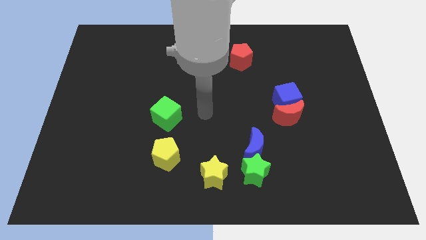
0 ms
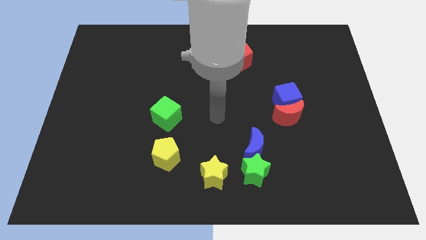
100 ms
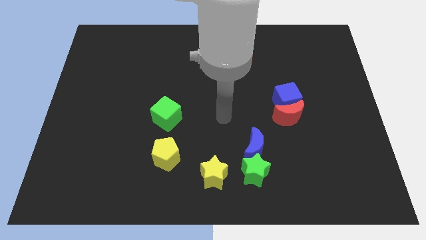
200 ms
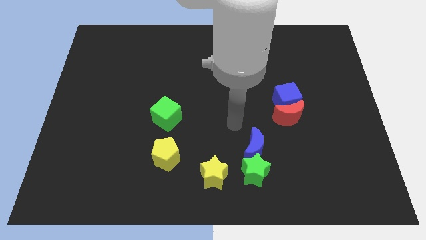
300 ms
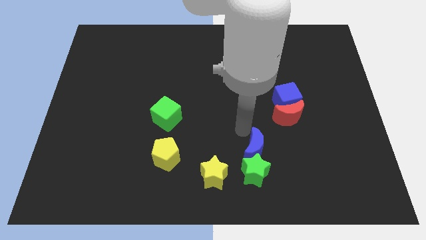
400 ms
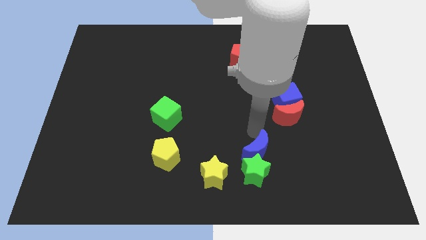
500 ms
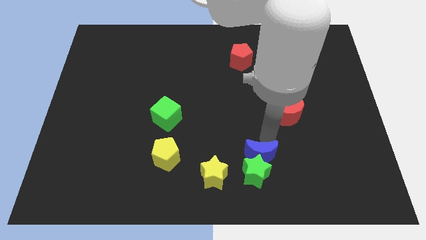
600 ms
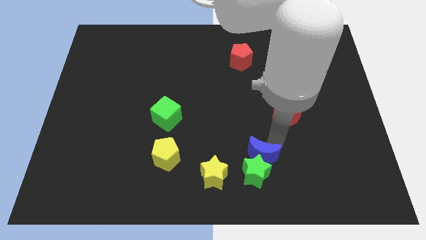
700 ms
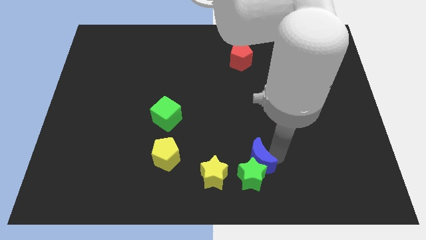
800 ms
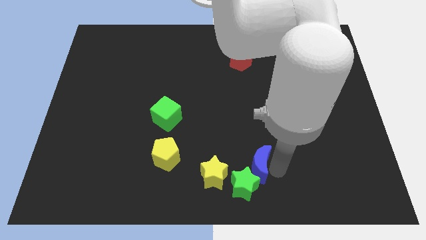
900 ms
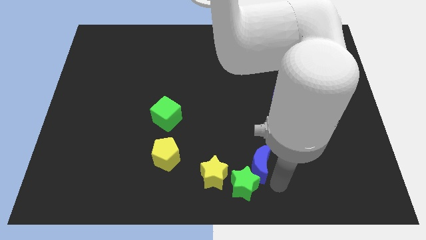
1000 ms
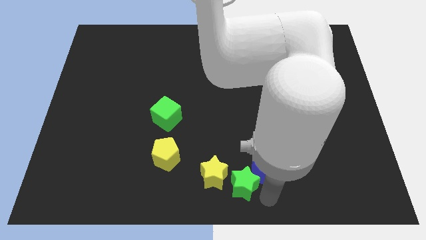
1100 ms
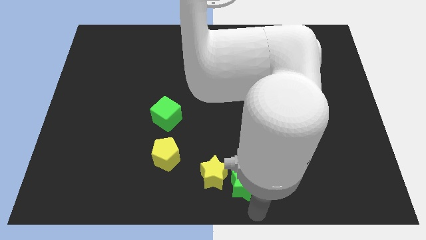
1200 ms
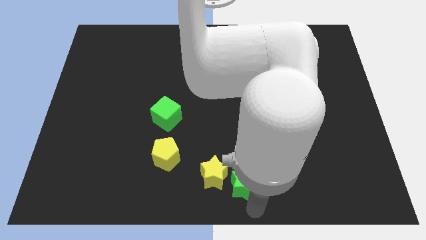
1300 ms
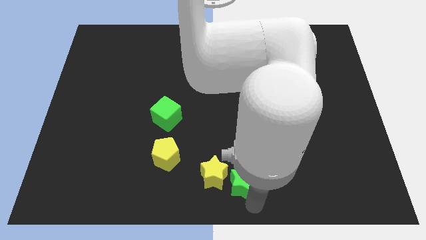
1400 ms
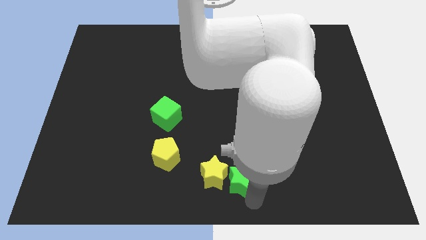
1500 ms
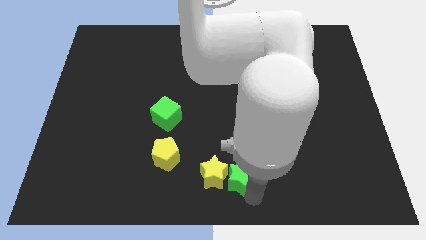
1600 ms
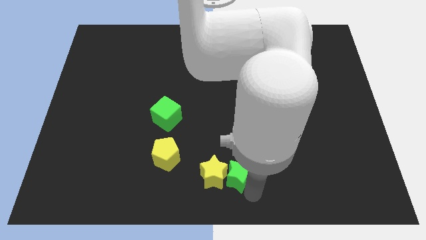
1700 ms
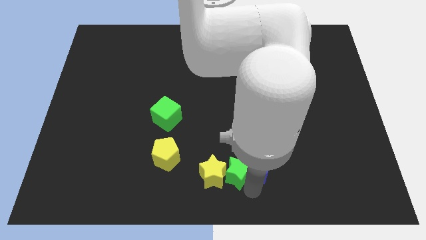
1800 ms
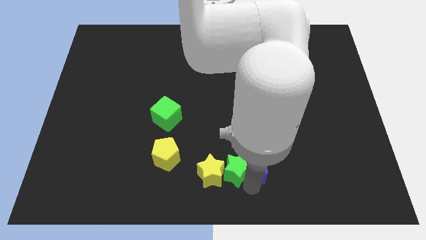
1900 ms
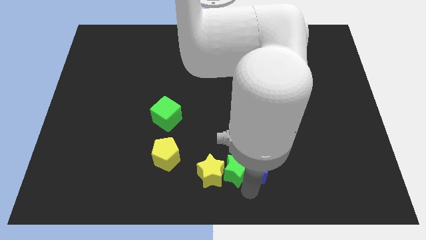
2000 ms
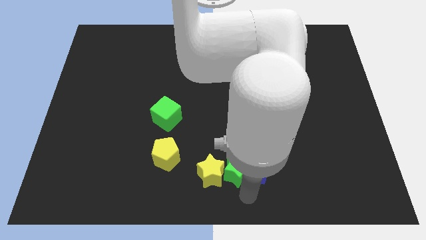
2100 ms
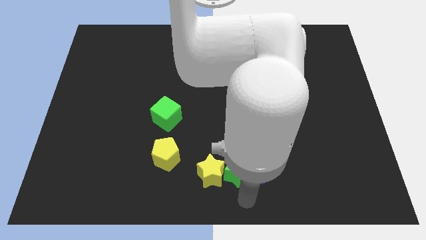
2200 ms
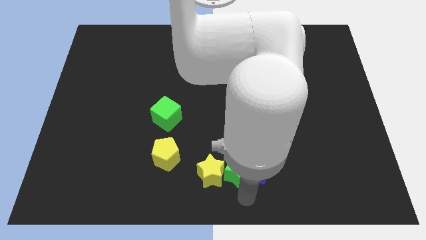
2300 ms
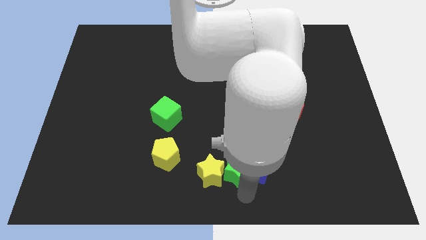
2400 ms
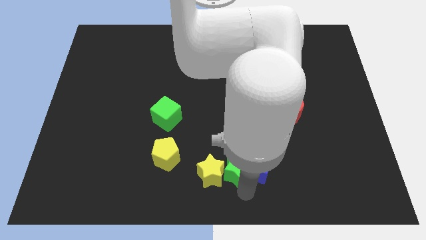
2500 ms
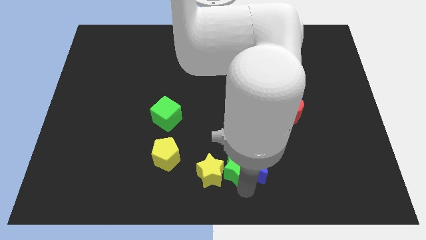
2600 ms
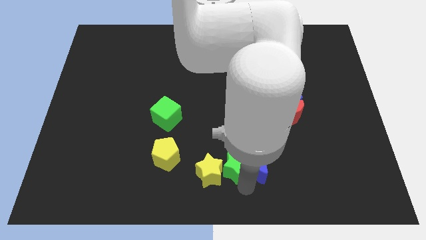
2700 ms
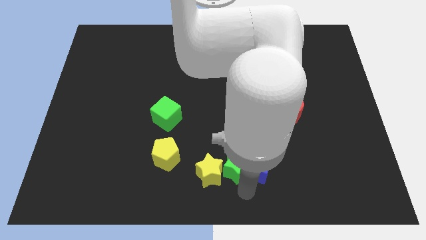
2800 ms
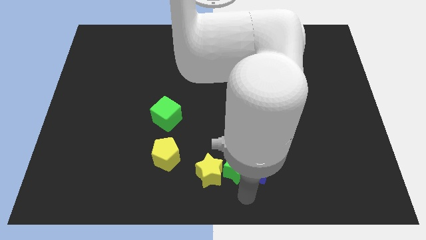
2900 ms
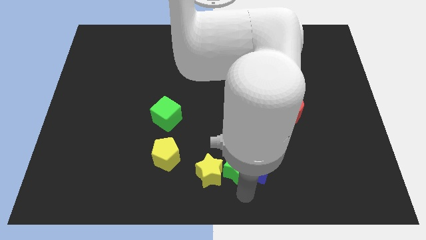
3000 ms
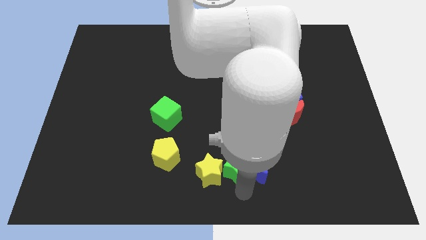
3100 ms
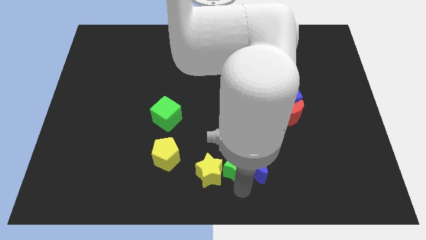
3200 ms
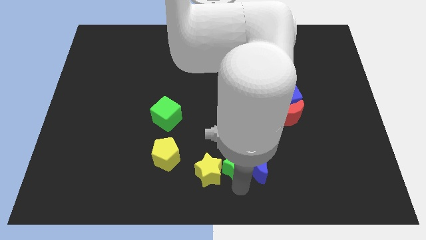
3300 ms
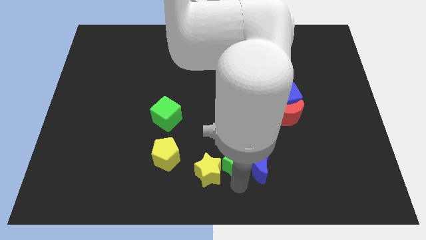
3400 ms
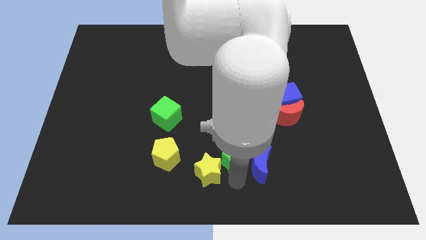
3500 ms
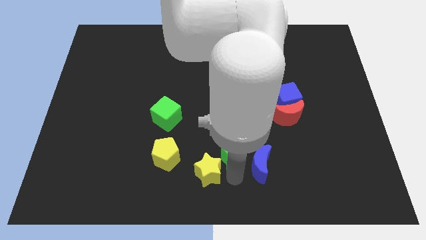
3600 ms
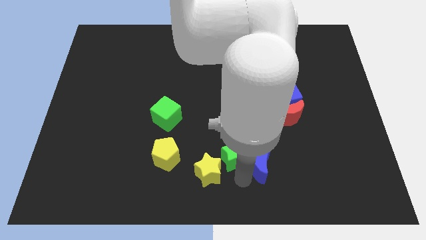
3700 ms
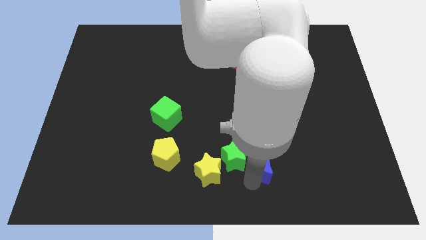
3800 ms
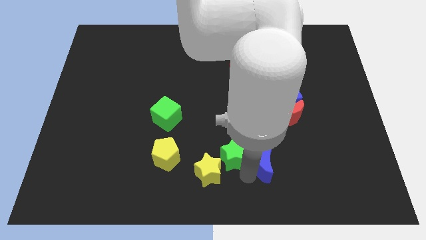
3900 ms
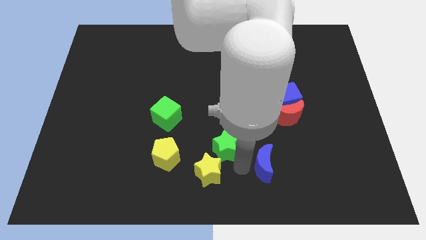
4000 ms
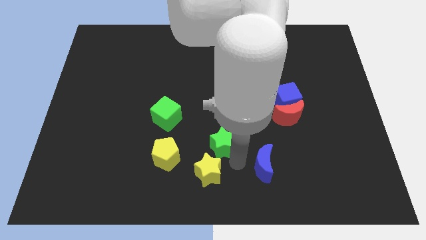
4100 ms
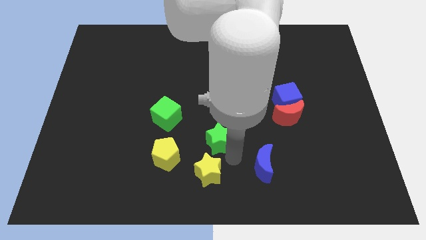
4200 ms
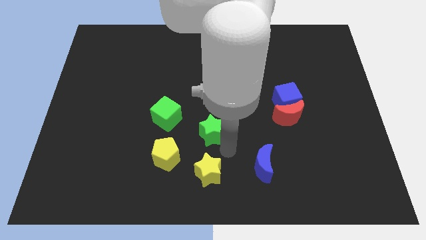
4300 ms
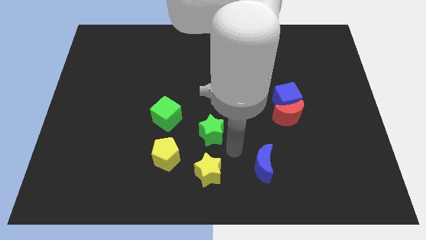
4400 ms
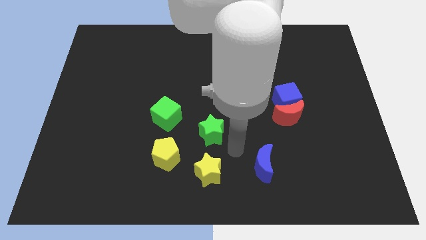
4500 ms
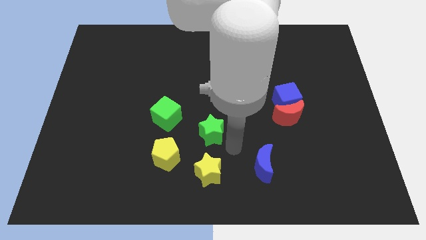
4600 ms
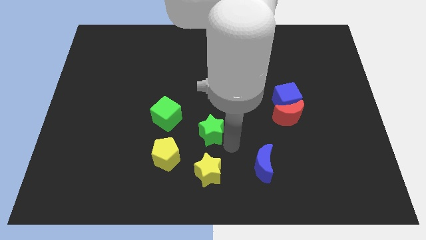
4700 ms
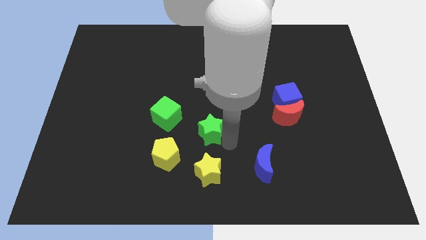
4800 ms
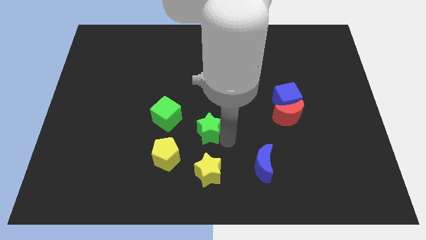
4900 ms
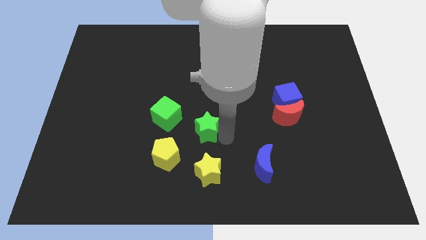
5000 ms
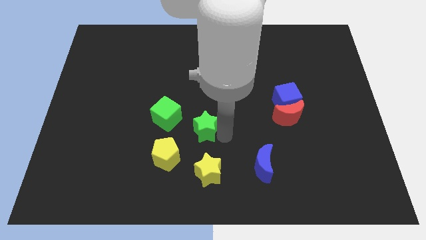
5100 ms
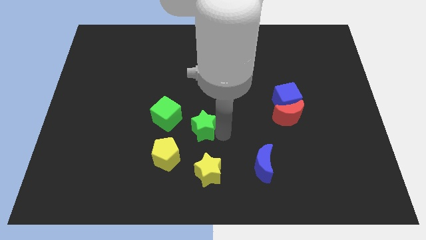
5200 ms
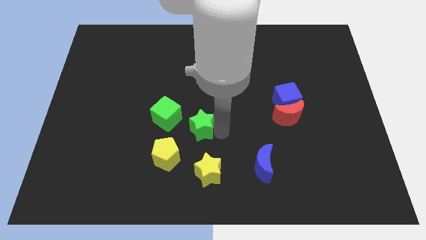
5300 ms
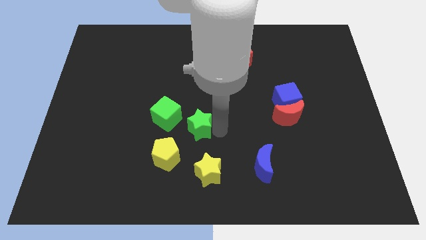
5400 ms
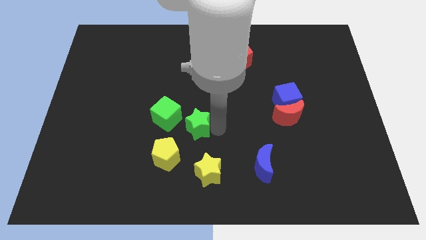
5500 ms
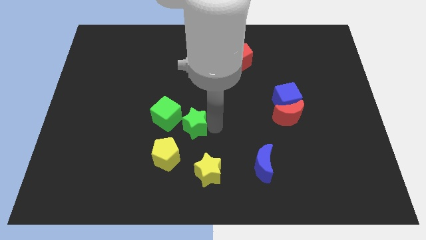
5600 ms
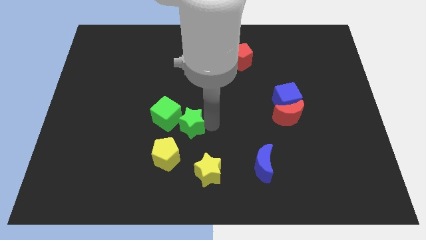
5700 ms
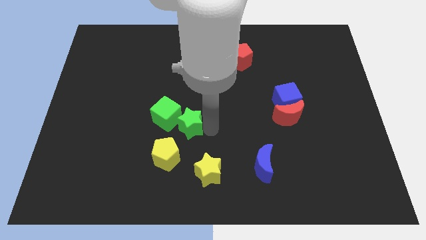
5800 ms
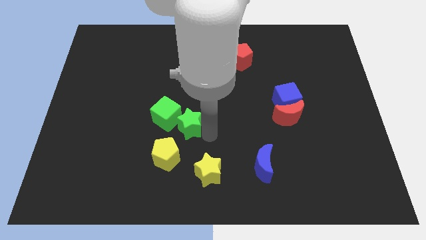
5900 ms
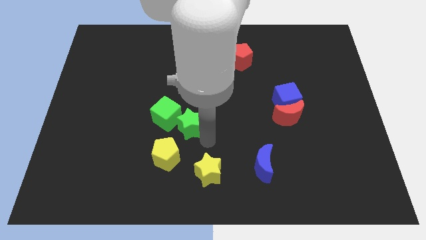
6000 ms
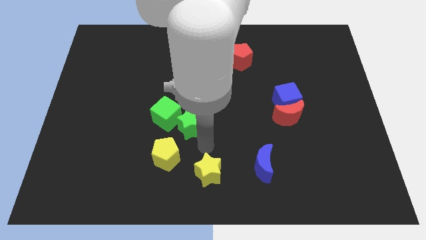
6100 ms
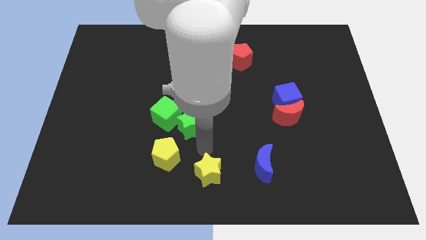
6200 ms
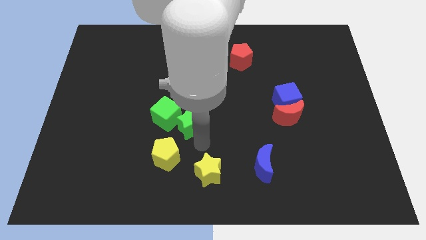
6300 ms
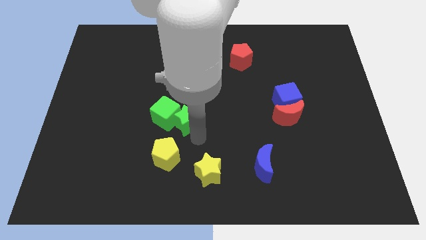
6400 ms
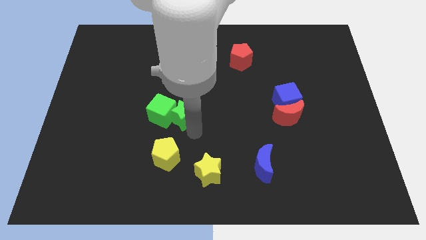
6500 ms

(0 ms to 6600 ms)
slide the green star diagonally up and left

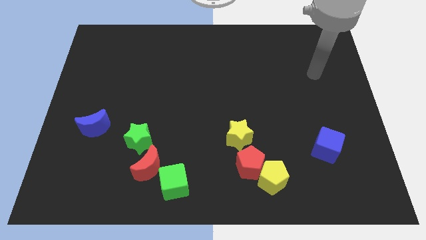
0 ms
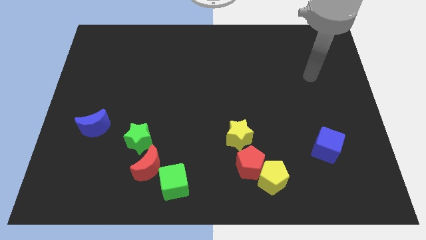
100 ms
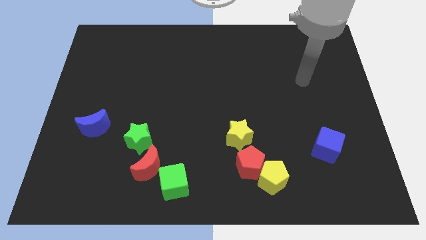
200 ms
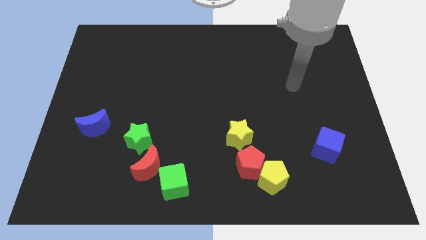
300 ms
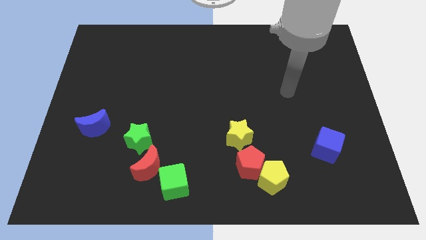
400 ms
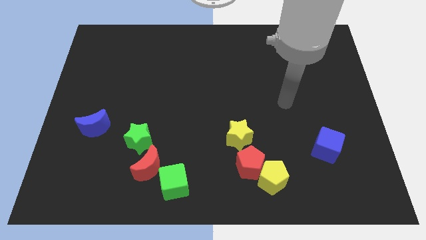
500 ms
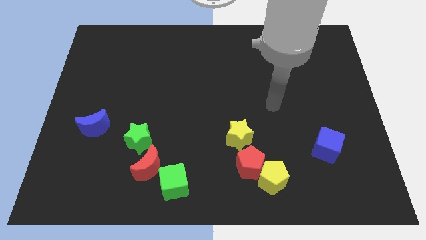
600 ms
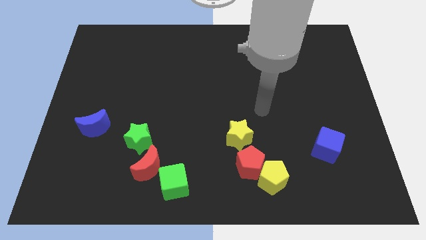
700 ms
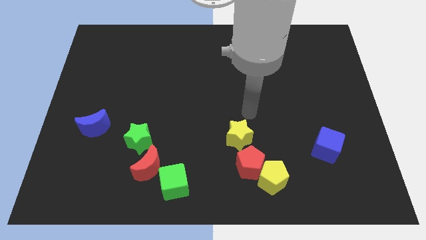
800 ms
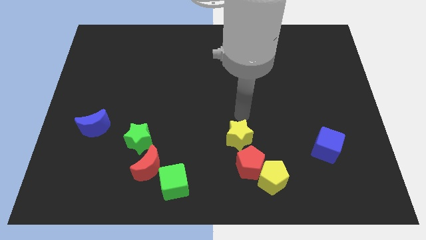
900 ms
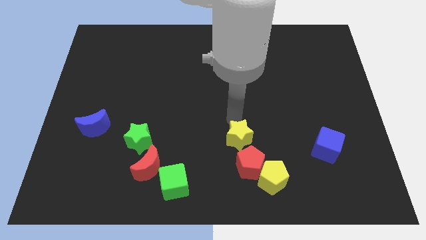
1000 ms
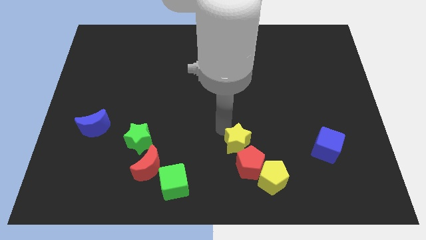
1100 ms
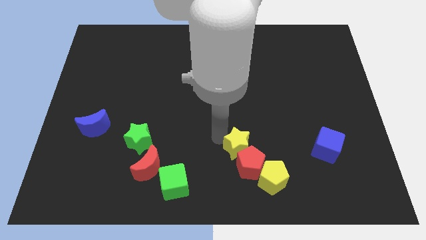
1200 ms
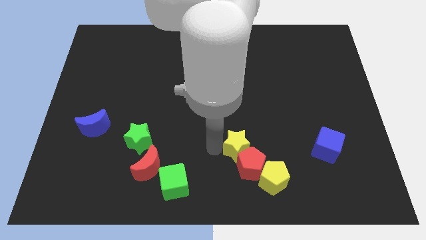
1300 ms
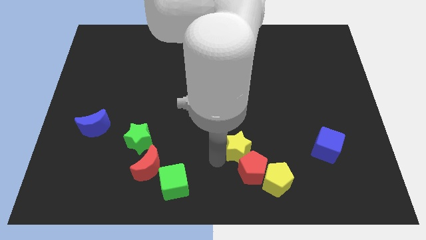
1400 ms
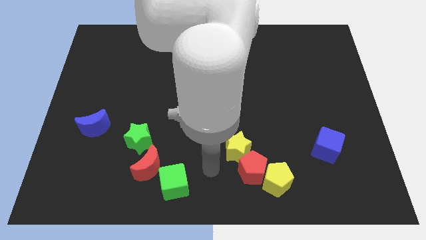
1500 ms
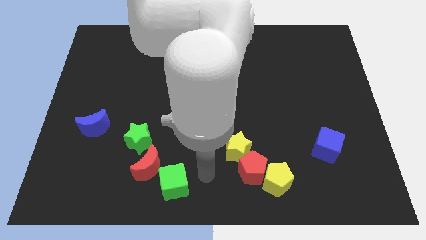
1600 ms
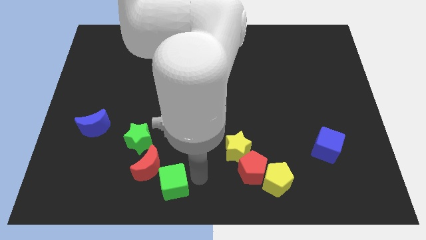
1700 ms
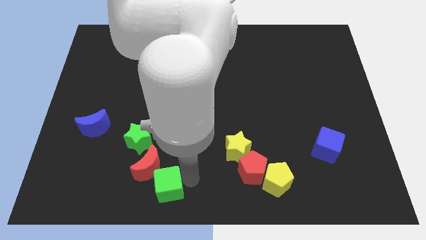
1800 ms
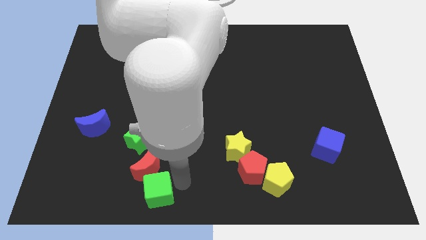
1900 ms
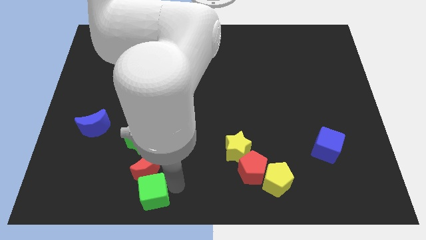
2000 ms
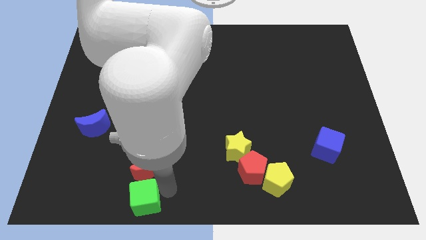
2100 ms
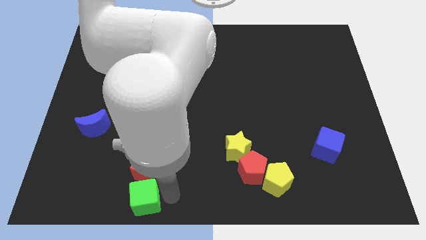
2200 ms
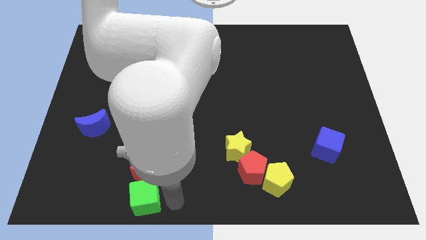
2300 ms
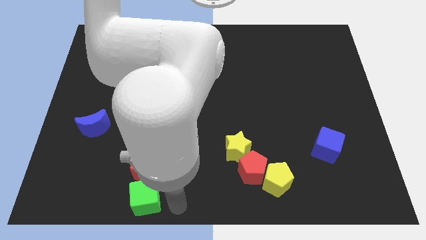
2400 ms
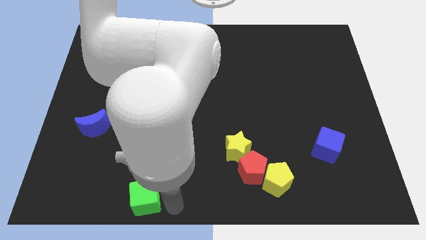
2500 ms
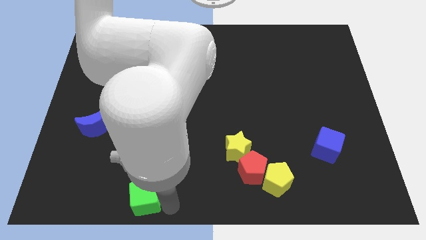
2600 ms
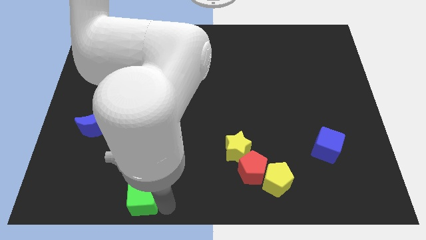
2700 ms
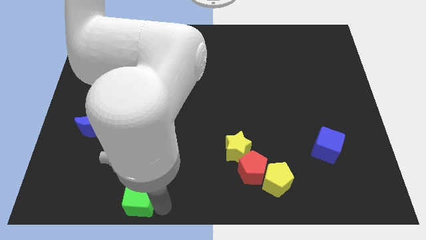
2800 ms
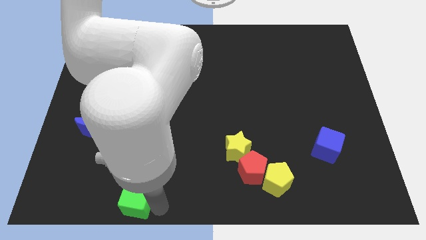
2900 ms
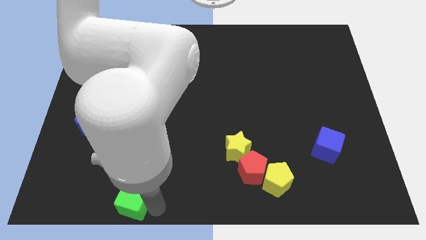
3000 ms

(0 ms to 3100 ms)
slide the green cube left somewhat
